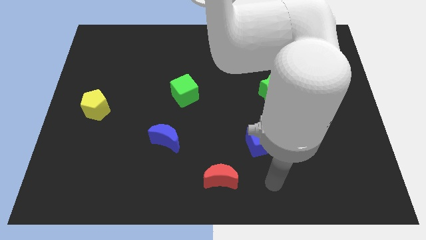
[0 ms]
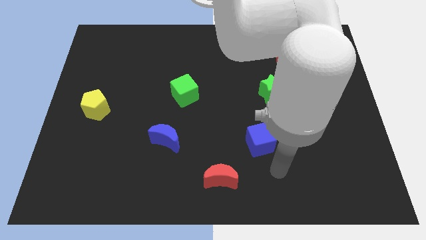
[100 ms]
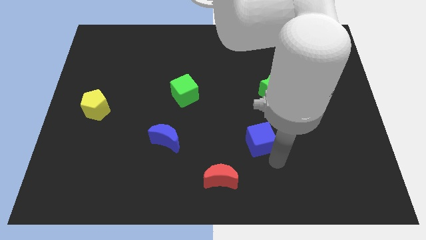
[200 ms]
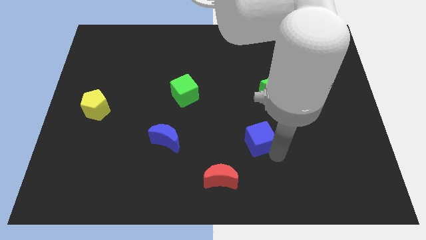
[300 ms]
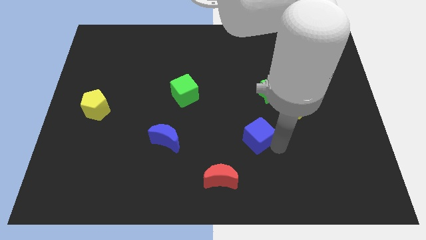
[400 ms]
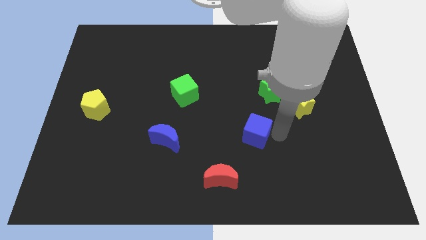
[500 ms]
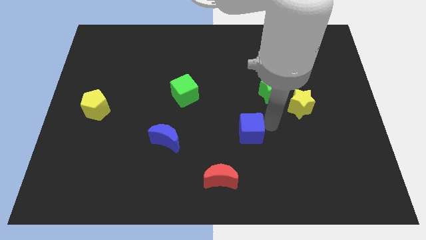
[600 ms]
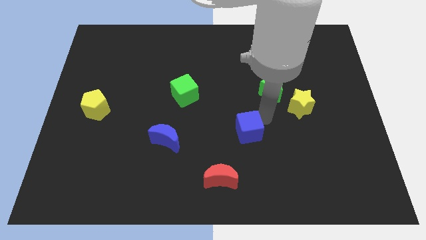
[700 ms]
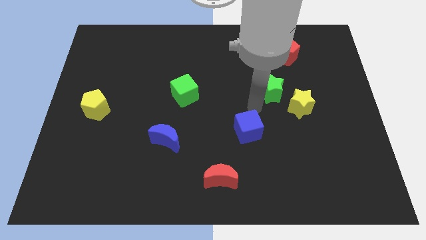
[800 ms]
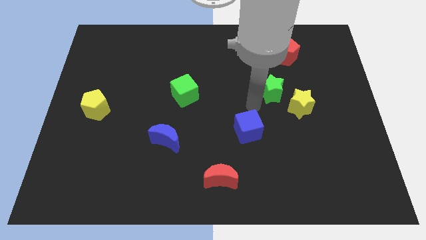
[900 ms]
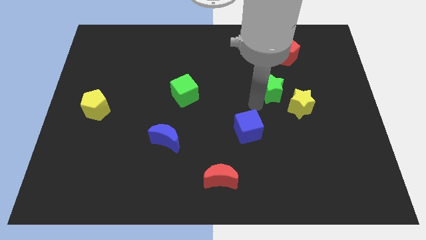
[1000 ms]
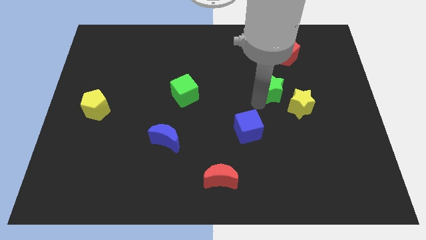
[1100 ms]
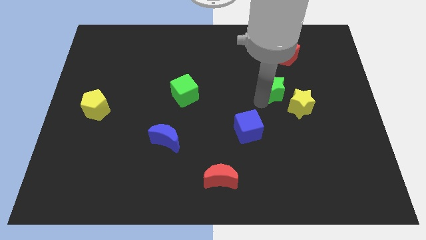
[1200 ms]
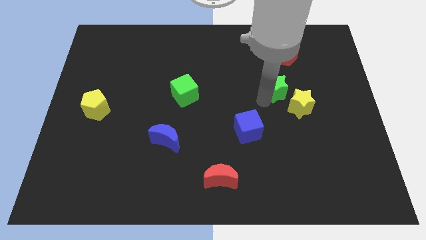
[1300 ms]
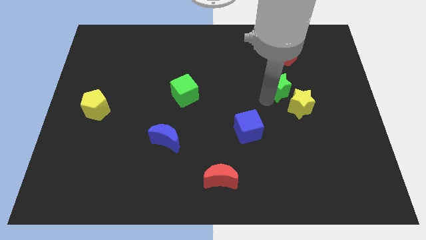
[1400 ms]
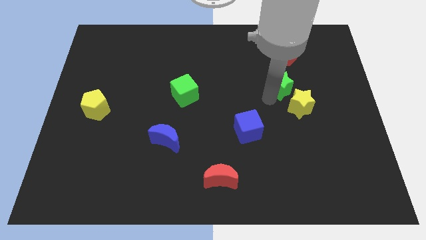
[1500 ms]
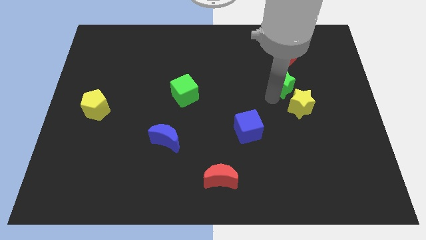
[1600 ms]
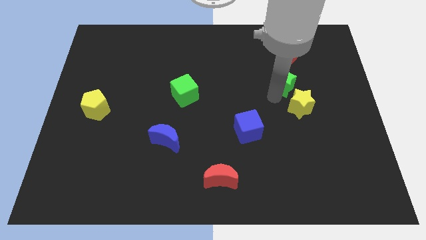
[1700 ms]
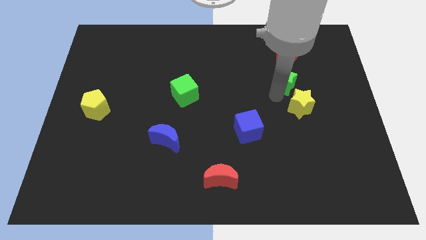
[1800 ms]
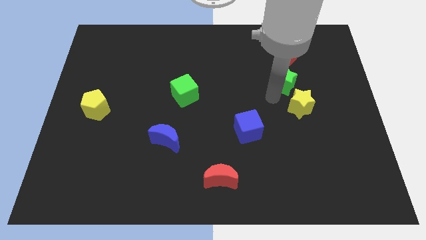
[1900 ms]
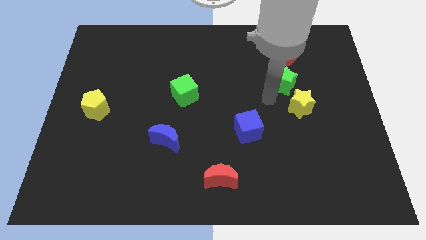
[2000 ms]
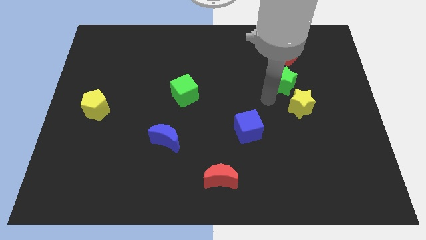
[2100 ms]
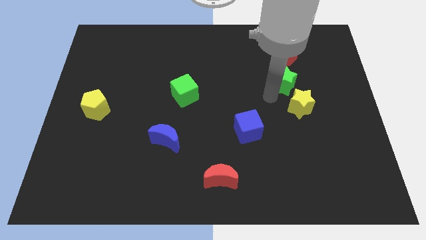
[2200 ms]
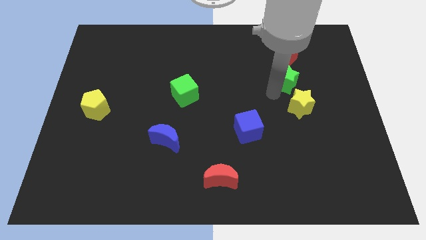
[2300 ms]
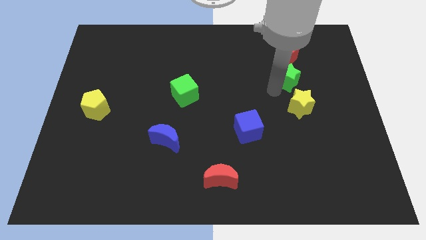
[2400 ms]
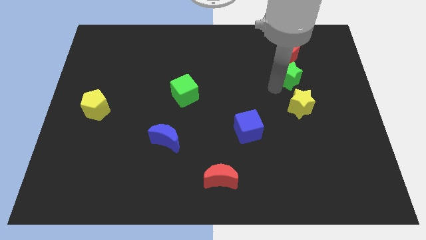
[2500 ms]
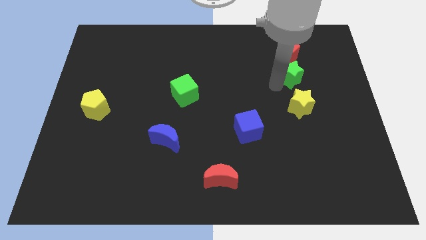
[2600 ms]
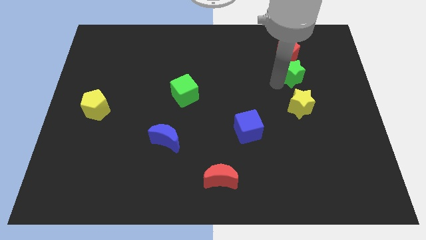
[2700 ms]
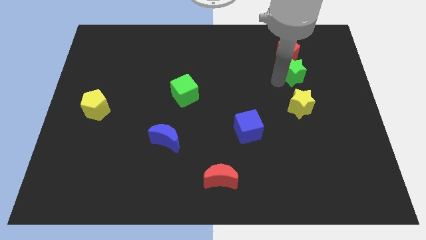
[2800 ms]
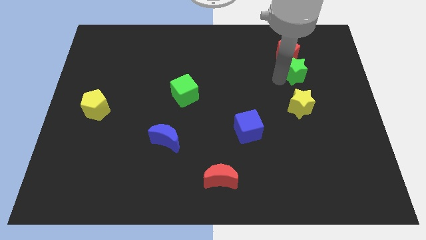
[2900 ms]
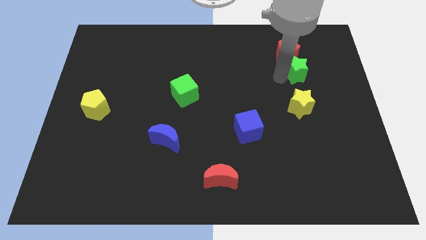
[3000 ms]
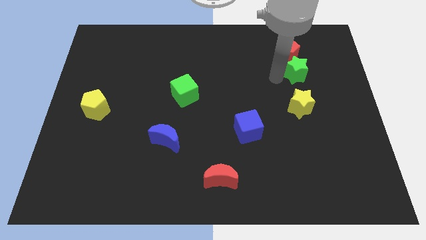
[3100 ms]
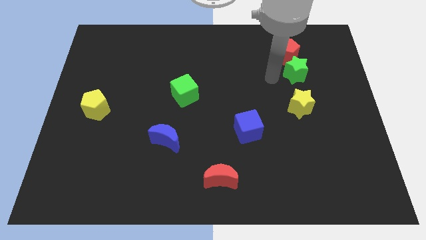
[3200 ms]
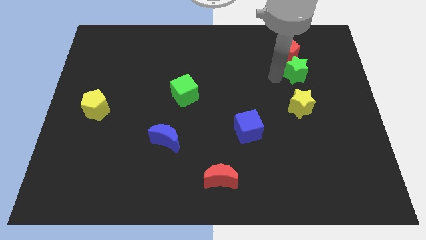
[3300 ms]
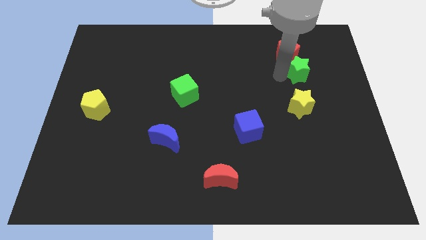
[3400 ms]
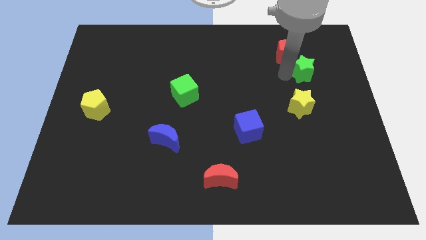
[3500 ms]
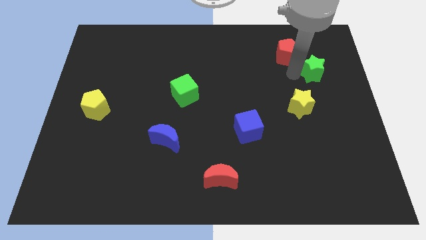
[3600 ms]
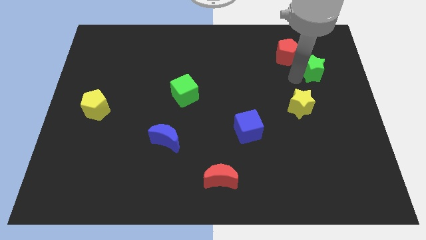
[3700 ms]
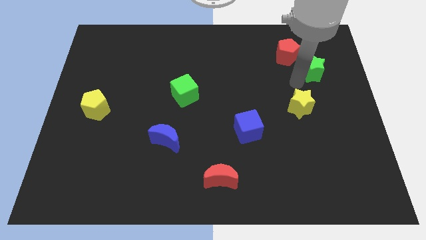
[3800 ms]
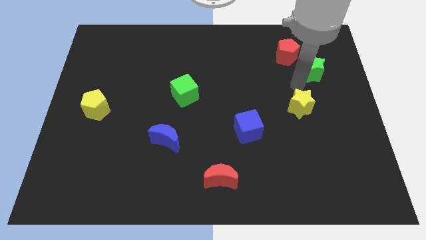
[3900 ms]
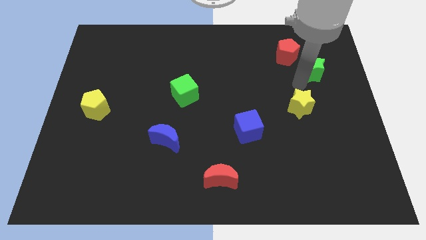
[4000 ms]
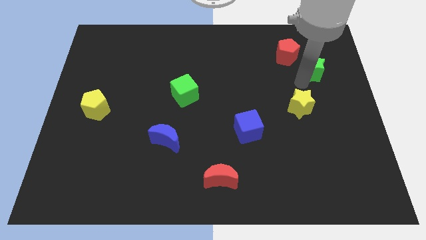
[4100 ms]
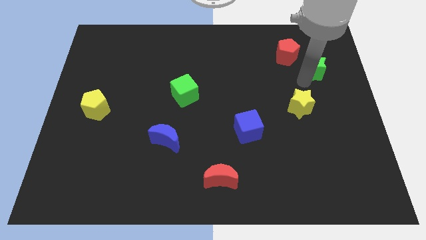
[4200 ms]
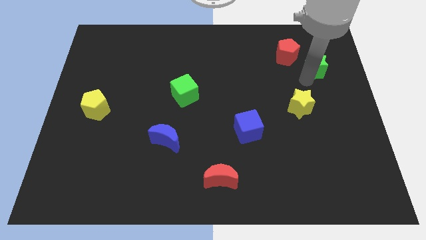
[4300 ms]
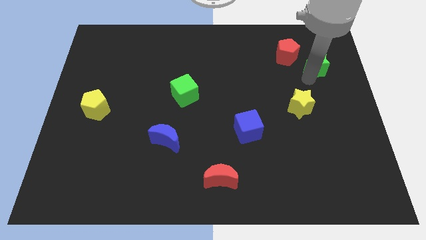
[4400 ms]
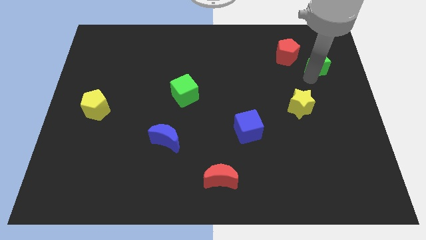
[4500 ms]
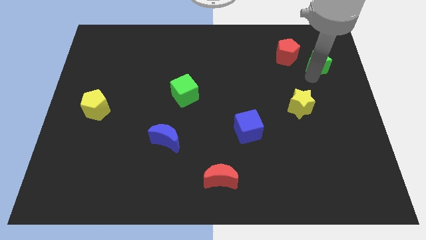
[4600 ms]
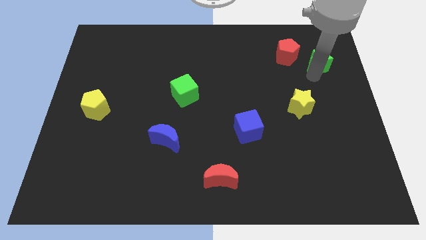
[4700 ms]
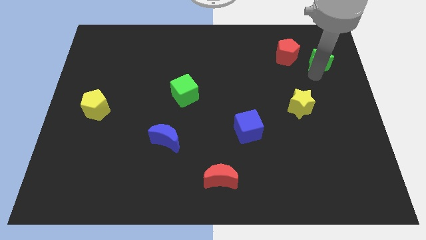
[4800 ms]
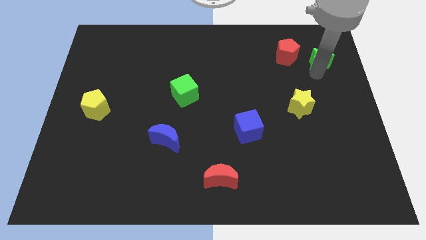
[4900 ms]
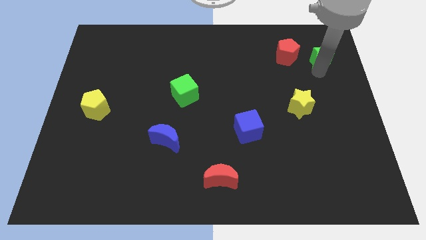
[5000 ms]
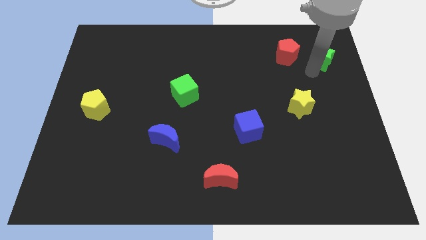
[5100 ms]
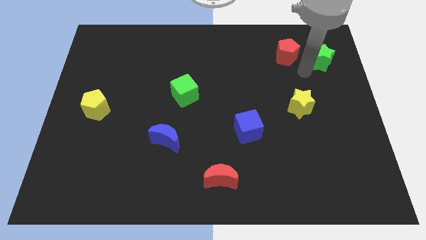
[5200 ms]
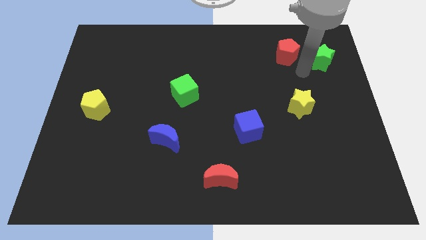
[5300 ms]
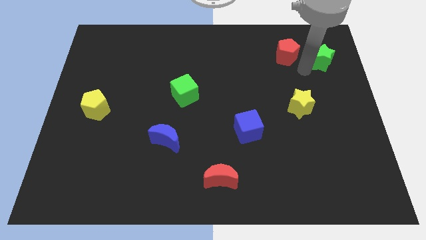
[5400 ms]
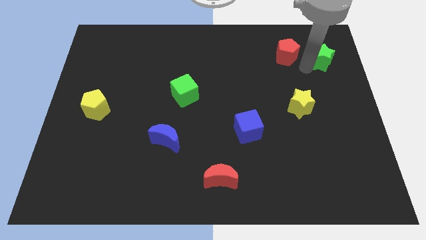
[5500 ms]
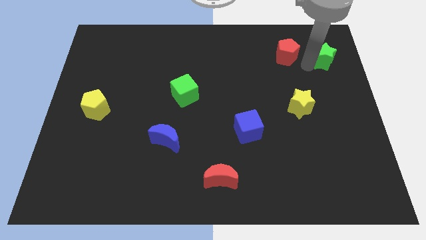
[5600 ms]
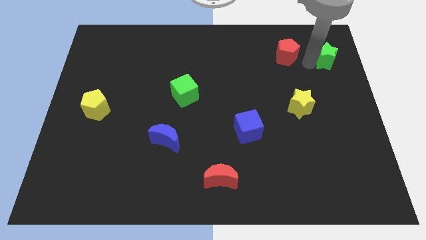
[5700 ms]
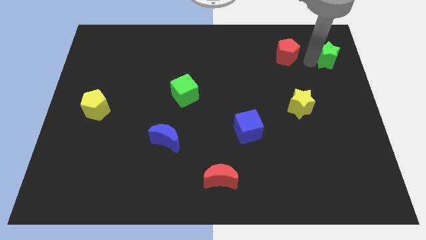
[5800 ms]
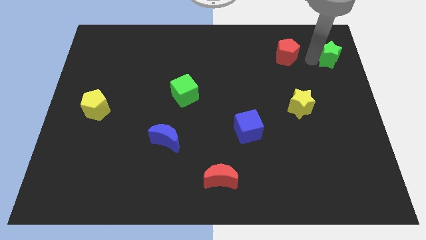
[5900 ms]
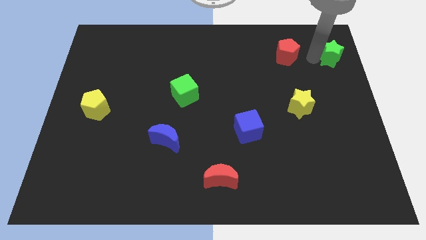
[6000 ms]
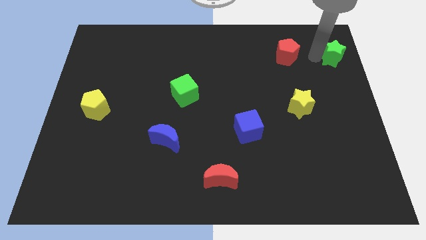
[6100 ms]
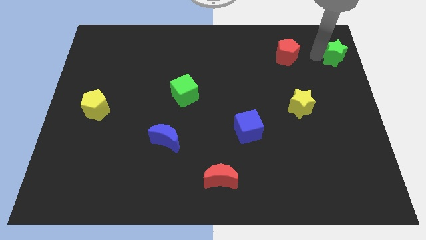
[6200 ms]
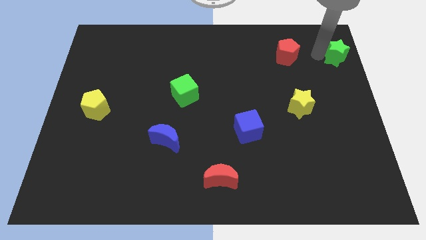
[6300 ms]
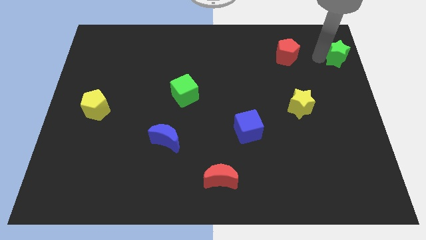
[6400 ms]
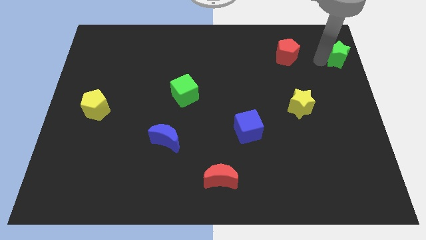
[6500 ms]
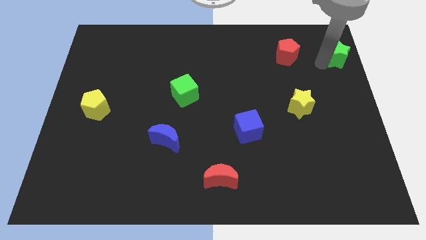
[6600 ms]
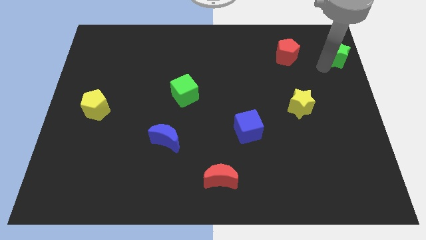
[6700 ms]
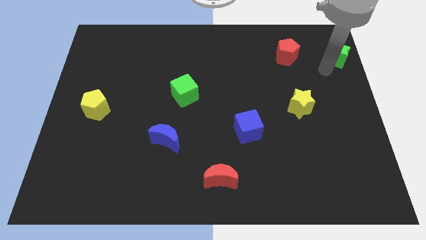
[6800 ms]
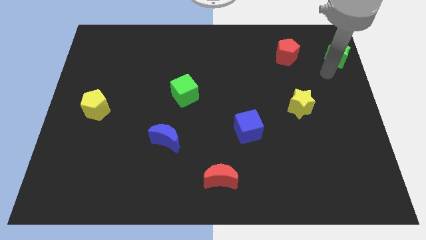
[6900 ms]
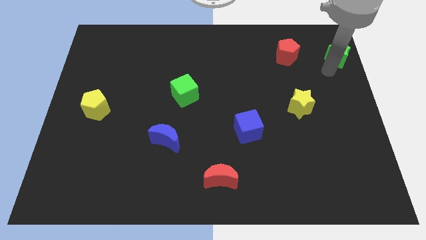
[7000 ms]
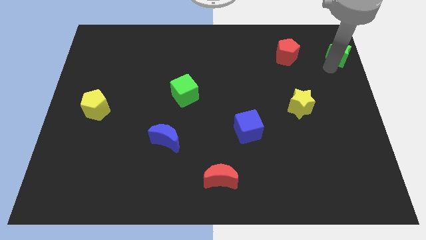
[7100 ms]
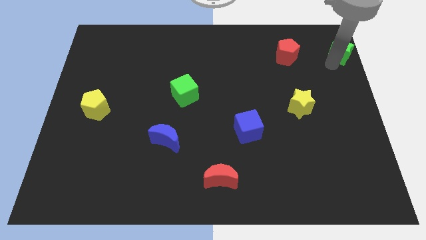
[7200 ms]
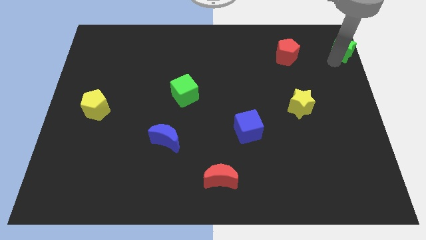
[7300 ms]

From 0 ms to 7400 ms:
move the green star to the top right
